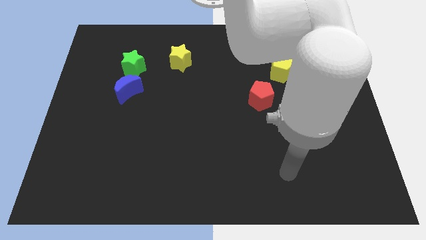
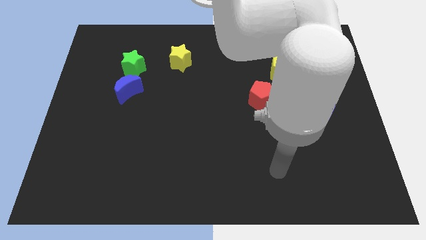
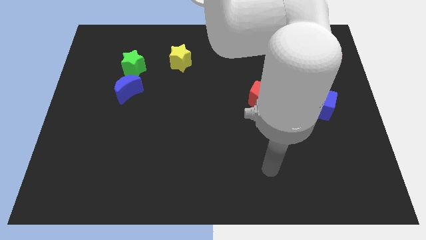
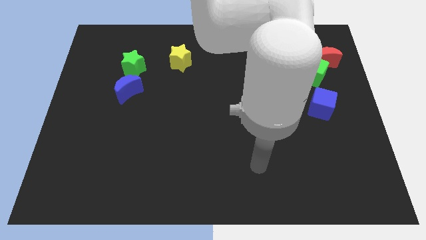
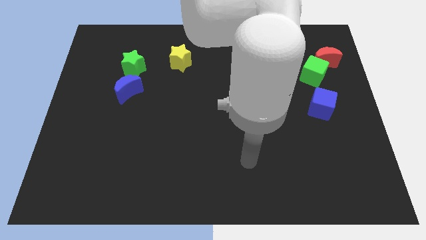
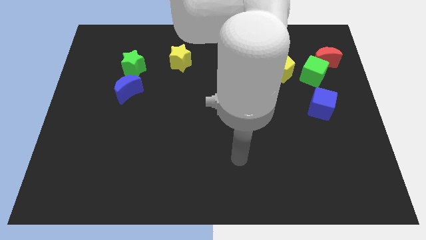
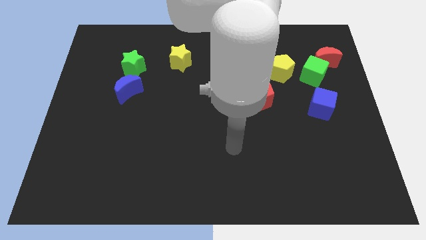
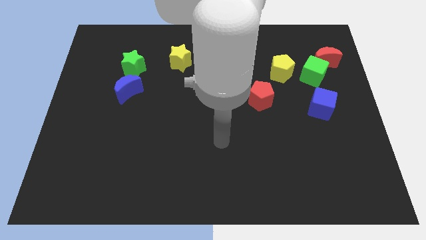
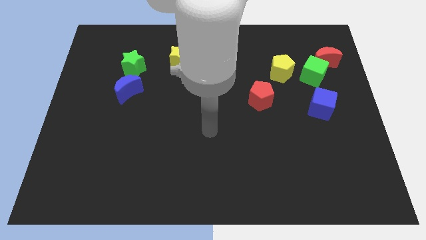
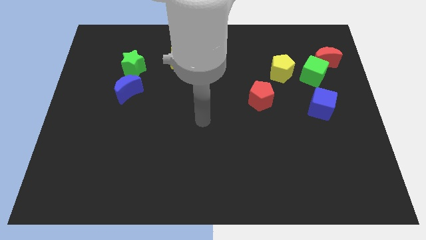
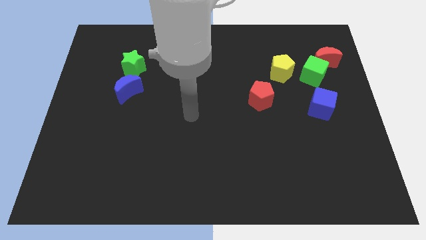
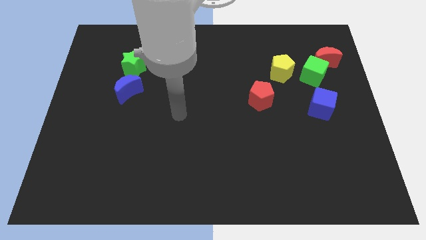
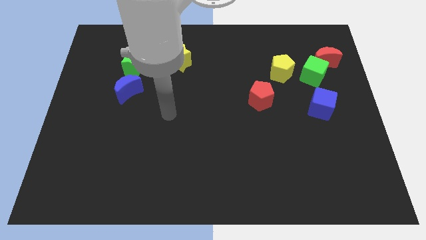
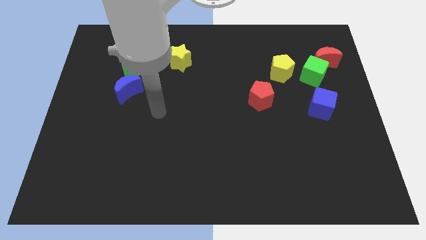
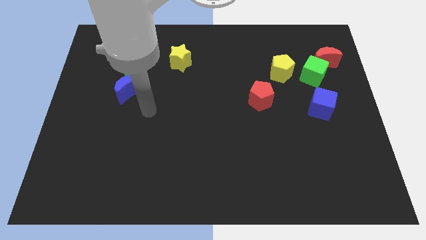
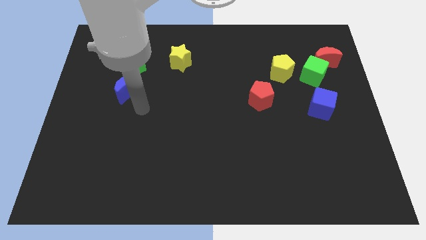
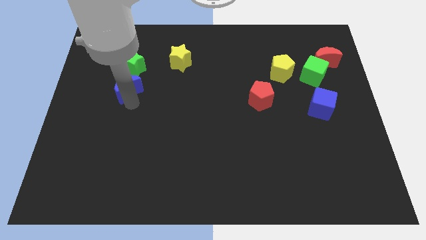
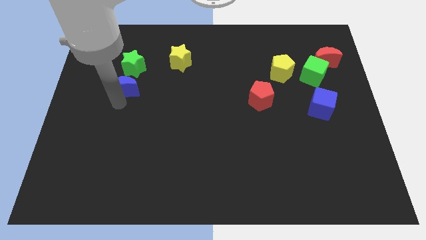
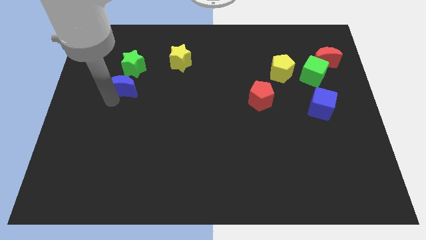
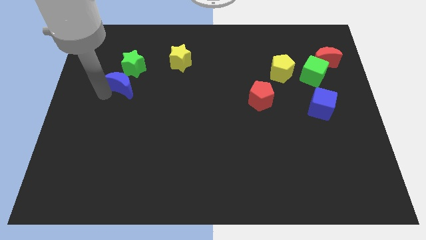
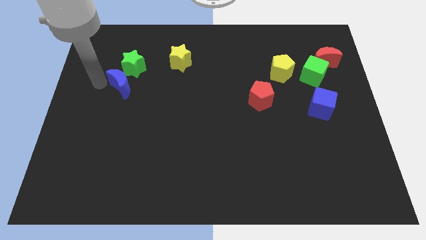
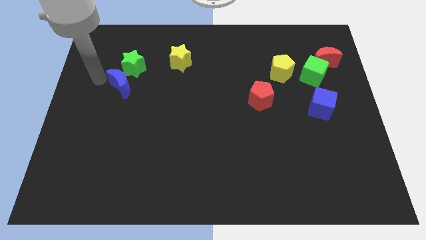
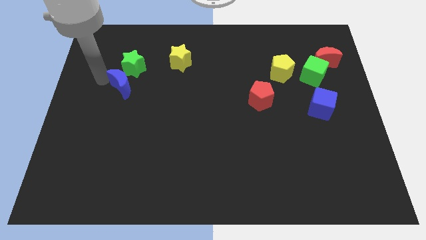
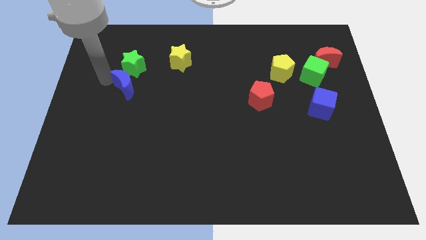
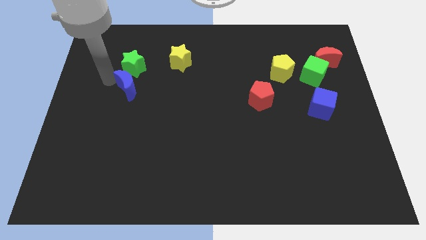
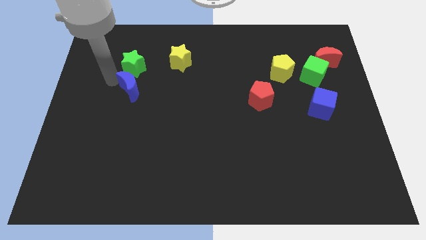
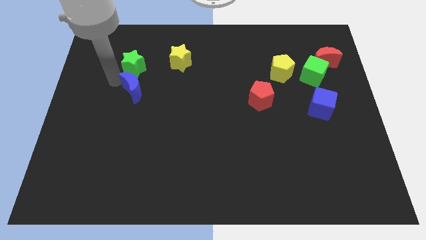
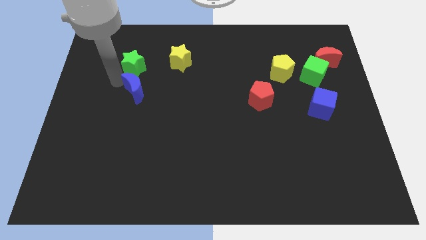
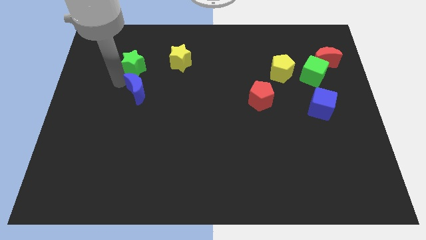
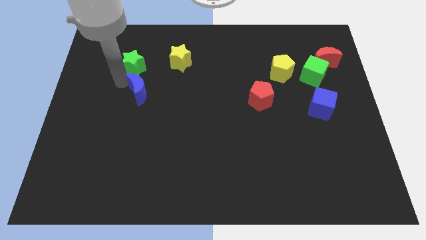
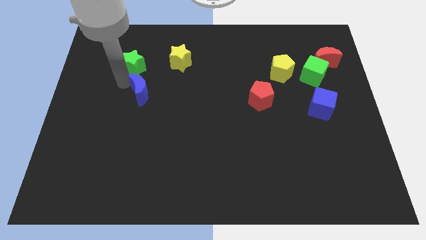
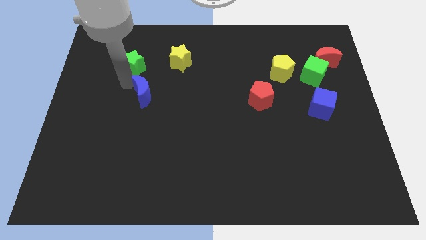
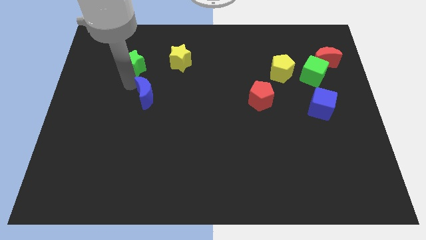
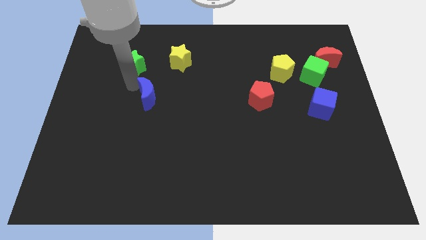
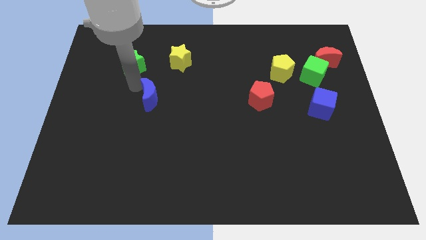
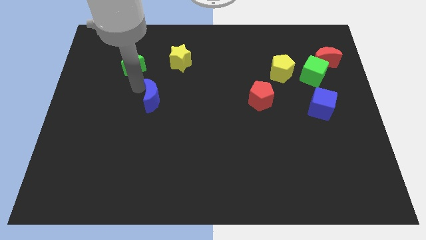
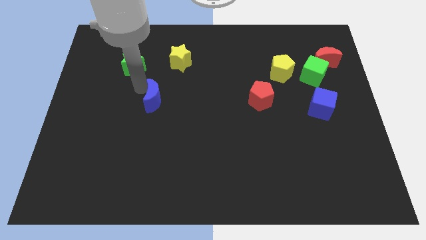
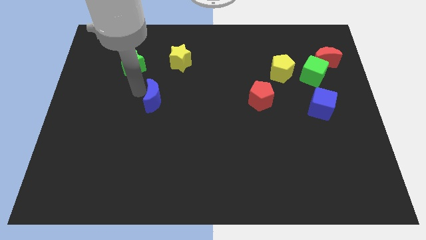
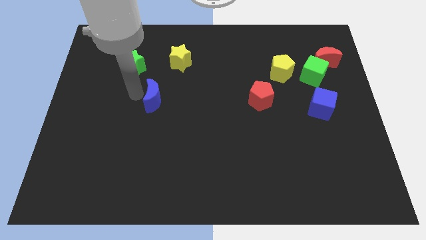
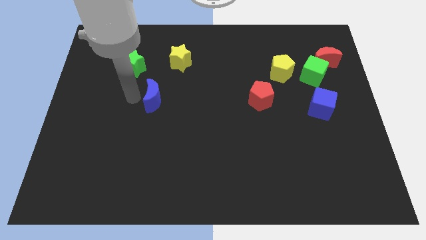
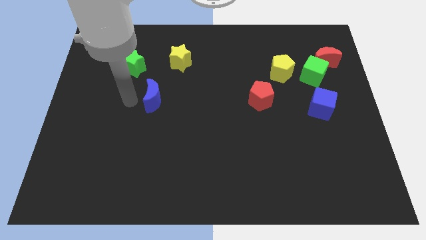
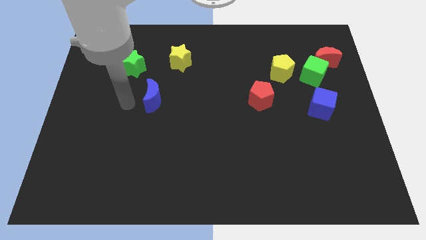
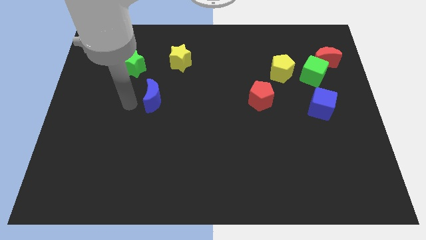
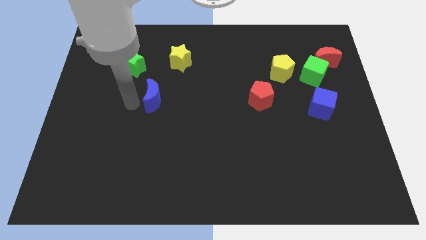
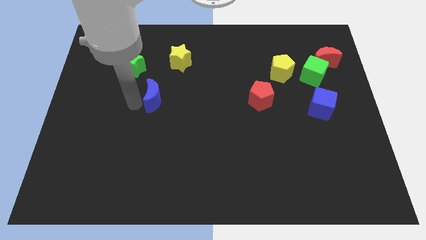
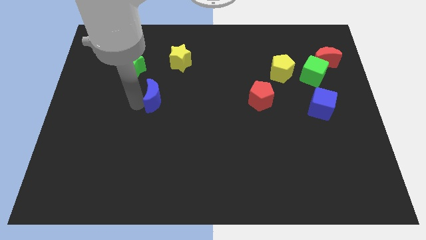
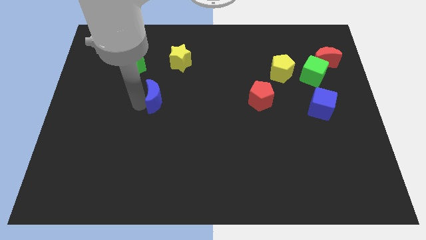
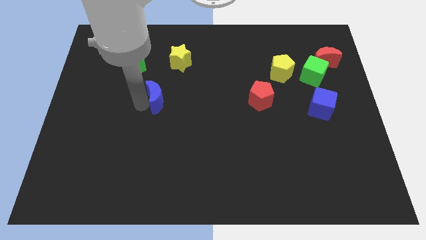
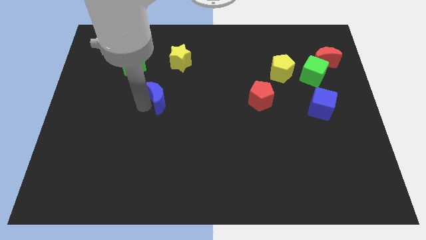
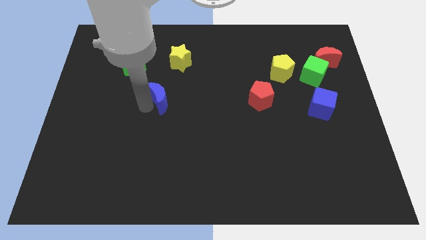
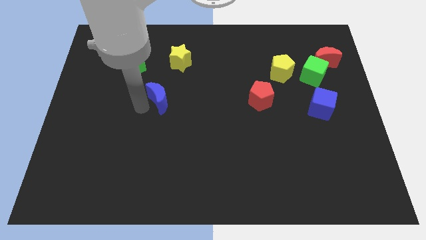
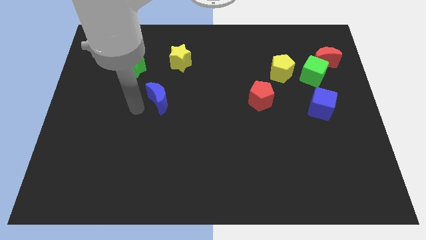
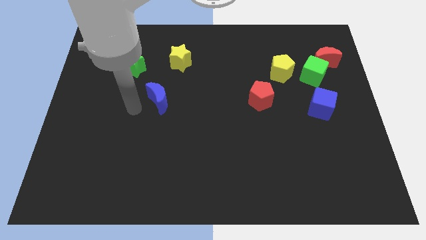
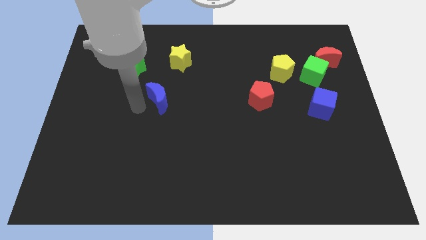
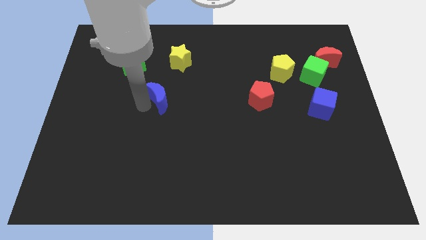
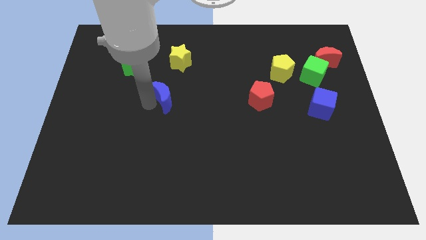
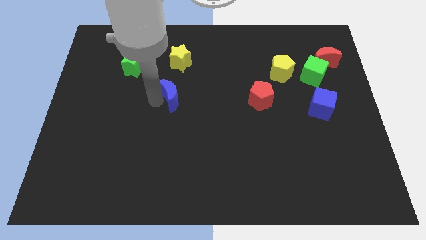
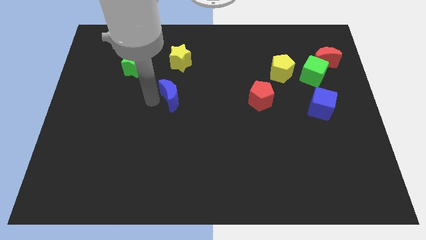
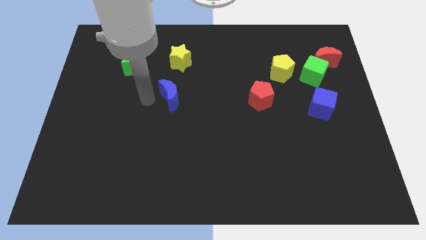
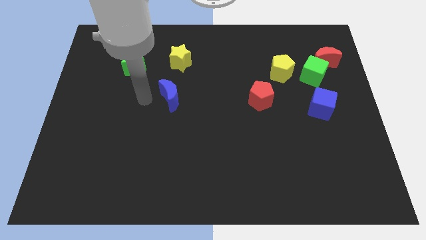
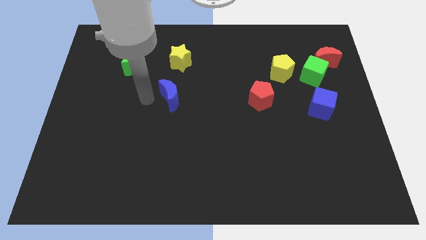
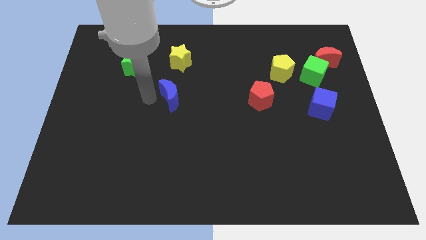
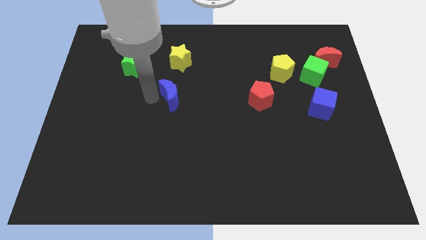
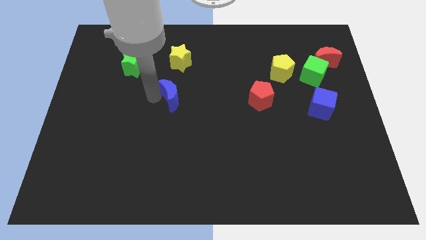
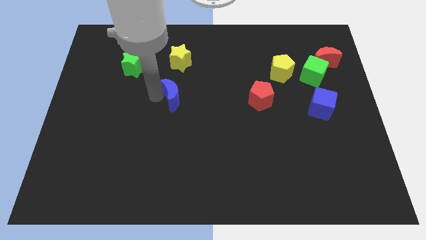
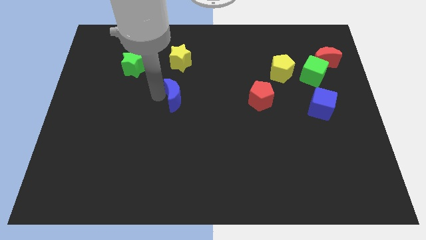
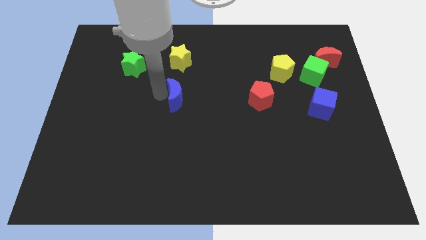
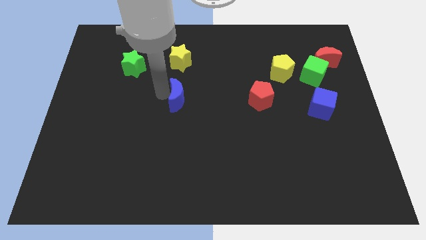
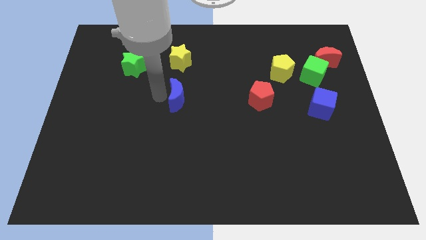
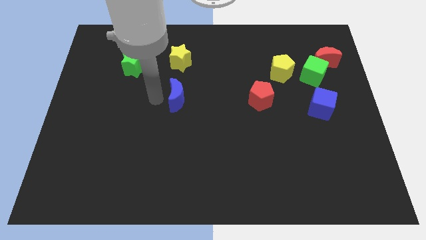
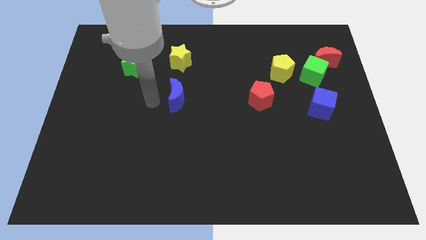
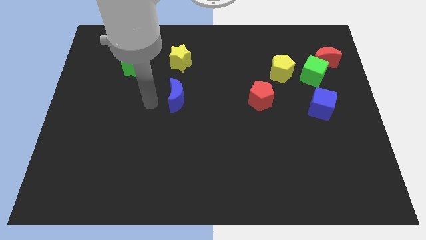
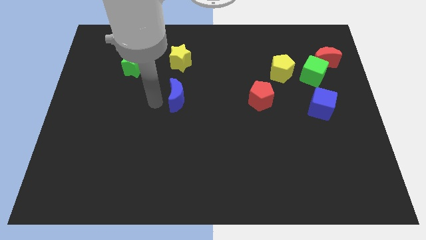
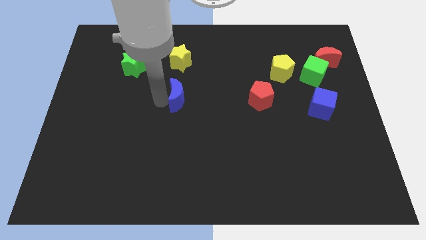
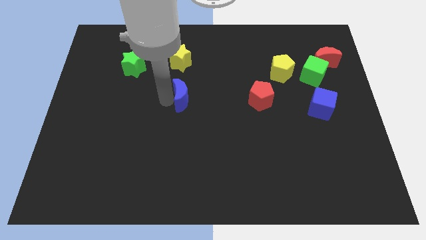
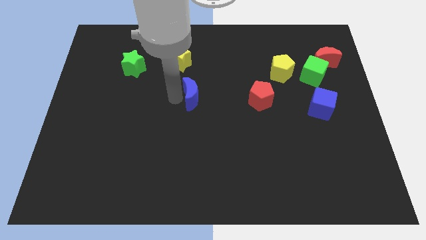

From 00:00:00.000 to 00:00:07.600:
move the blue moon to the left side of the red pentagon
